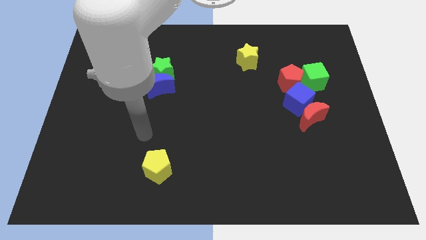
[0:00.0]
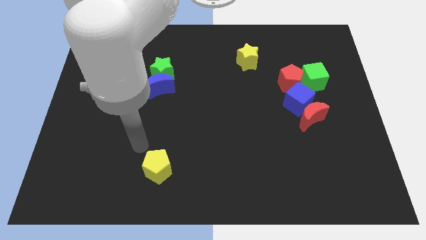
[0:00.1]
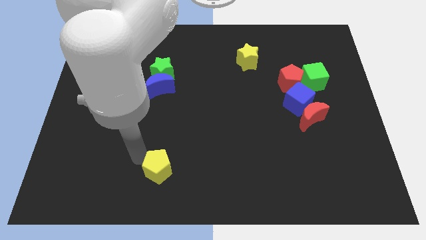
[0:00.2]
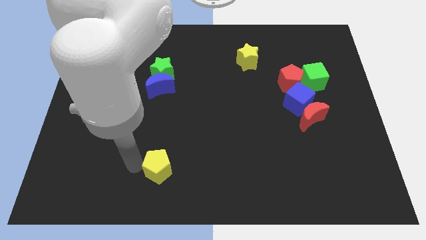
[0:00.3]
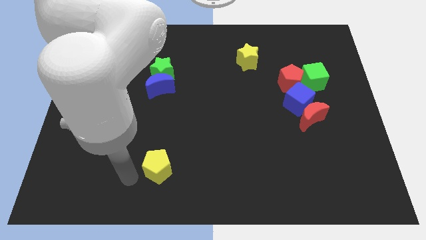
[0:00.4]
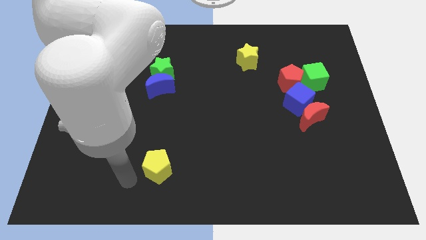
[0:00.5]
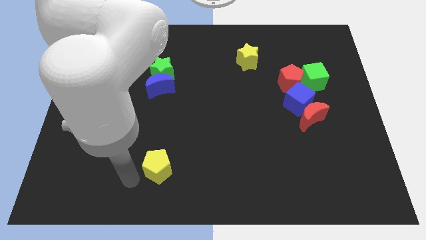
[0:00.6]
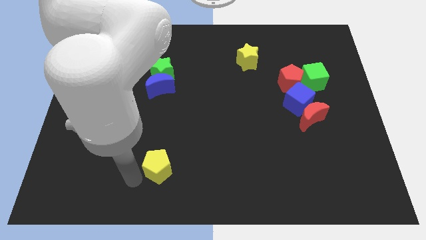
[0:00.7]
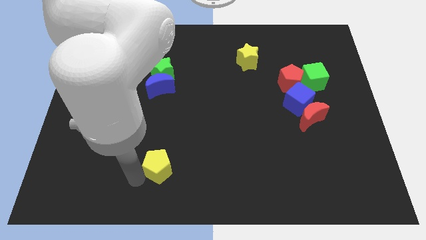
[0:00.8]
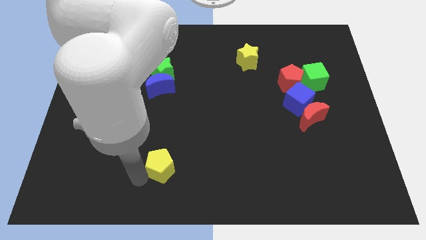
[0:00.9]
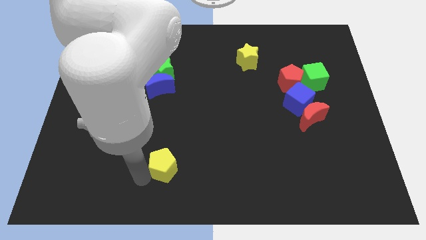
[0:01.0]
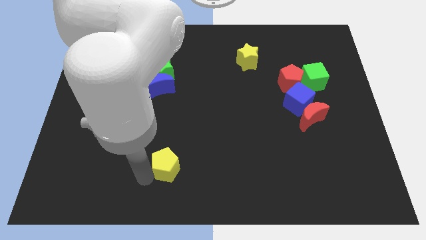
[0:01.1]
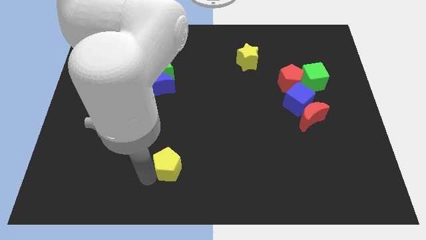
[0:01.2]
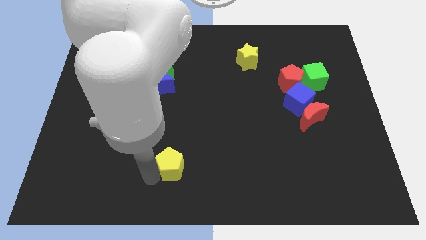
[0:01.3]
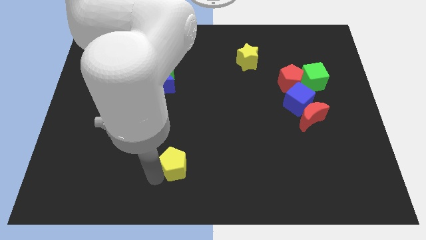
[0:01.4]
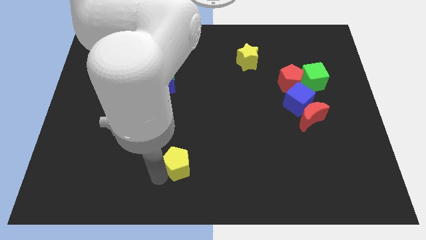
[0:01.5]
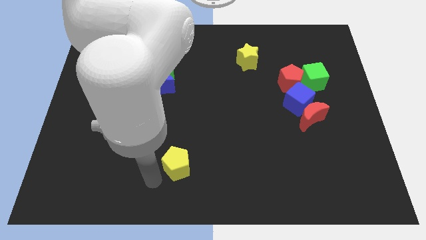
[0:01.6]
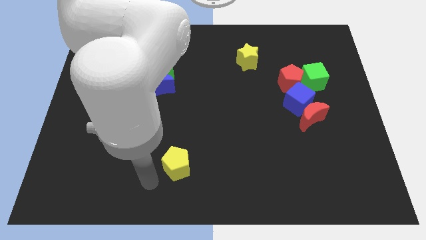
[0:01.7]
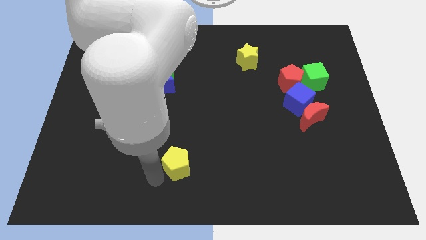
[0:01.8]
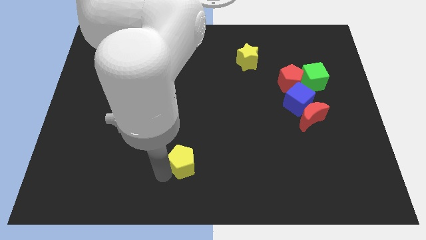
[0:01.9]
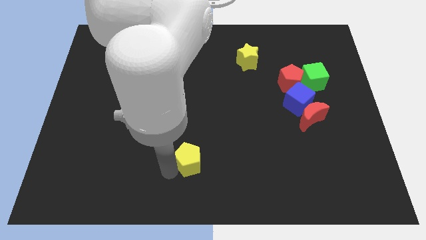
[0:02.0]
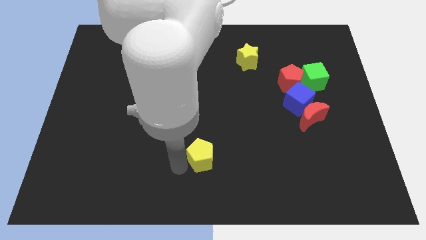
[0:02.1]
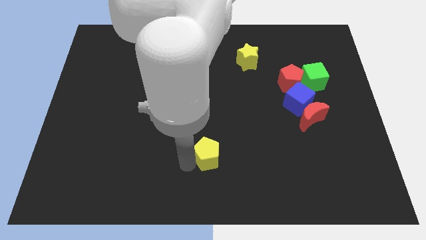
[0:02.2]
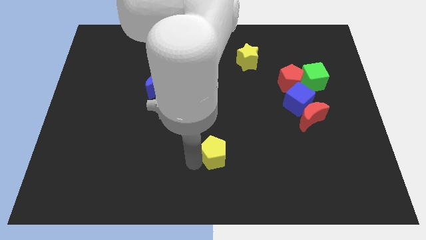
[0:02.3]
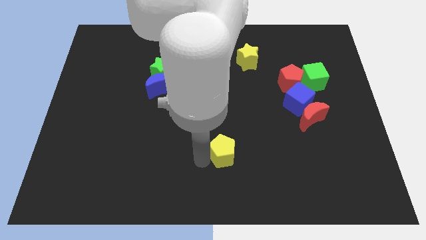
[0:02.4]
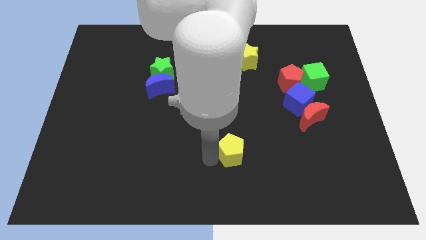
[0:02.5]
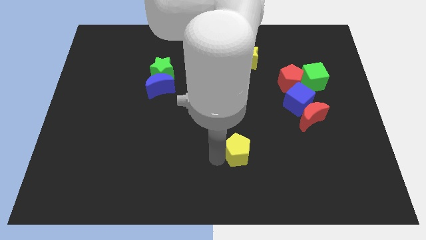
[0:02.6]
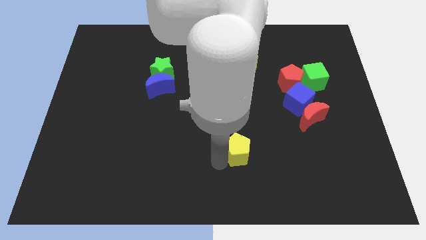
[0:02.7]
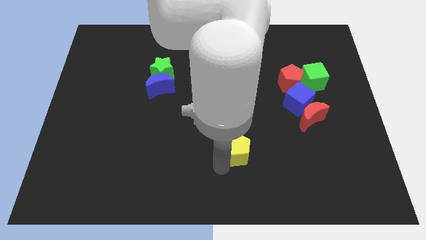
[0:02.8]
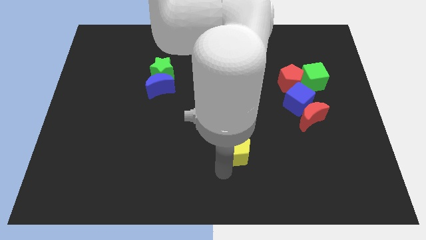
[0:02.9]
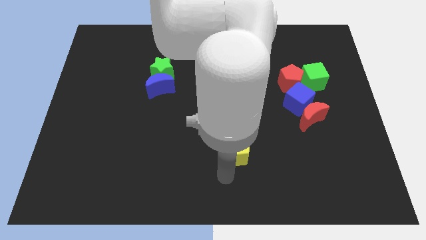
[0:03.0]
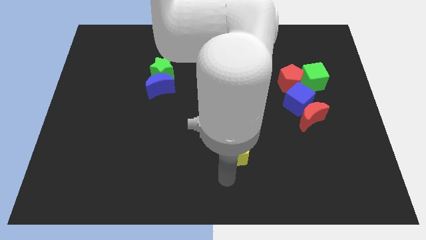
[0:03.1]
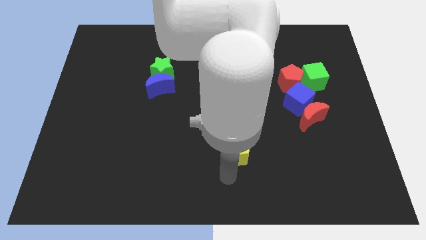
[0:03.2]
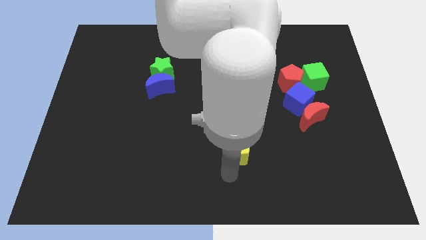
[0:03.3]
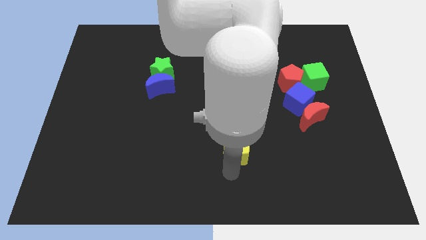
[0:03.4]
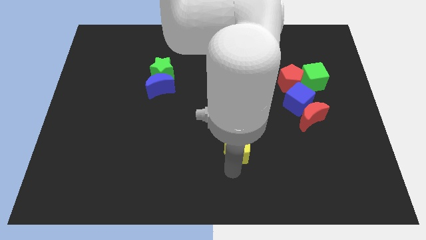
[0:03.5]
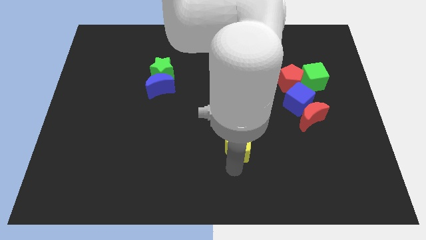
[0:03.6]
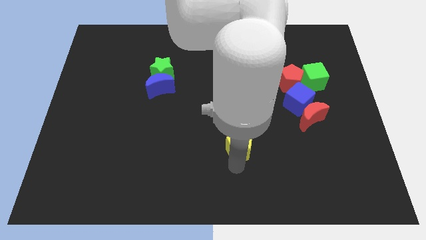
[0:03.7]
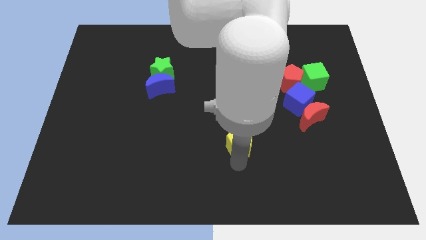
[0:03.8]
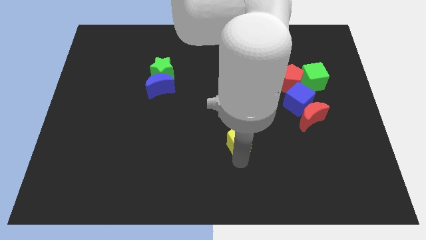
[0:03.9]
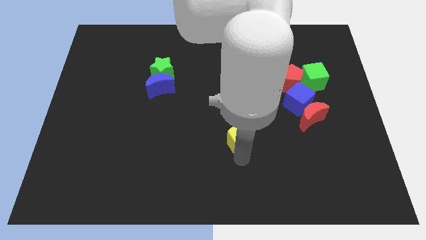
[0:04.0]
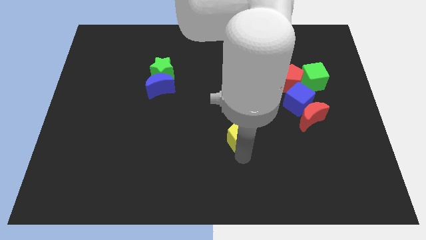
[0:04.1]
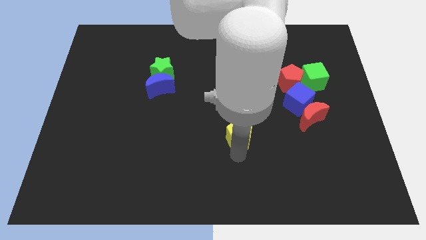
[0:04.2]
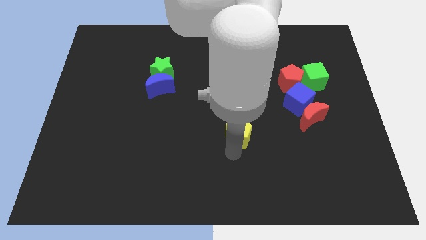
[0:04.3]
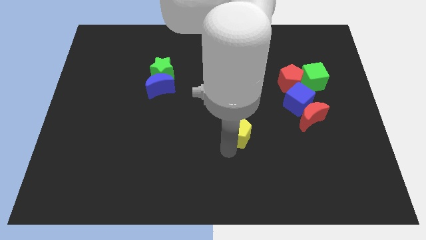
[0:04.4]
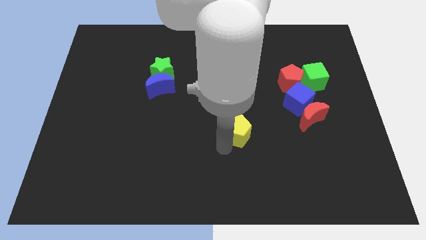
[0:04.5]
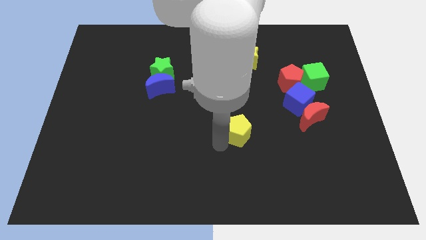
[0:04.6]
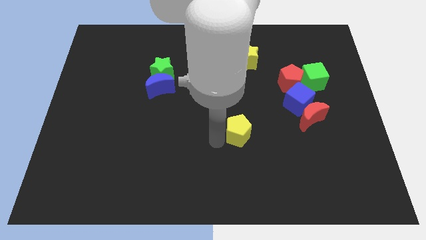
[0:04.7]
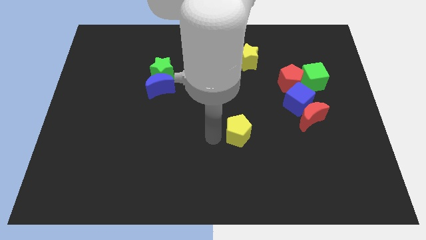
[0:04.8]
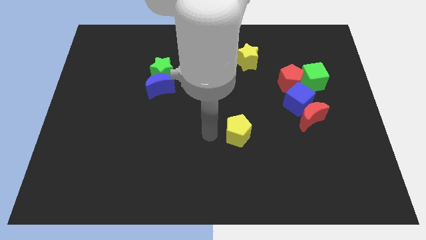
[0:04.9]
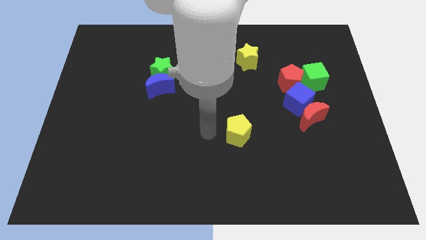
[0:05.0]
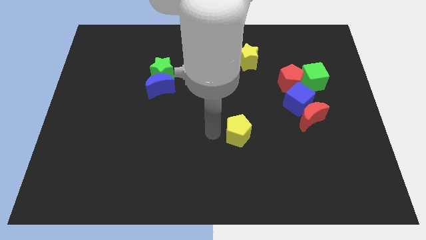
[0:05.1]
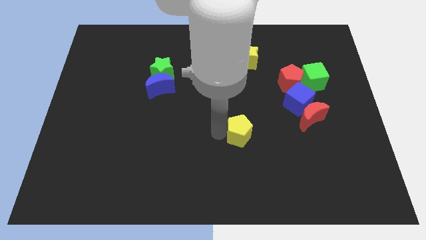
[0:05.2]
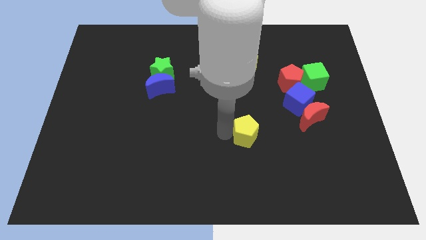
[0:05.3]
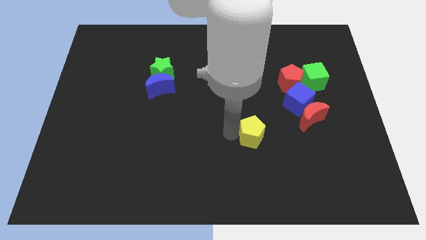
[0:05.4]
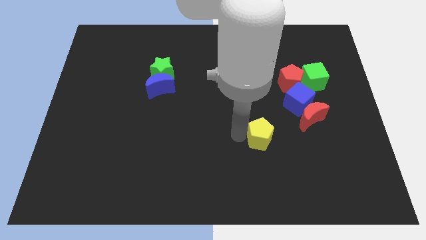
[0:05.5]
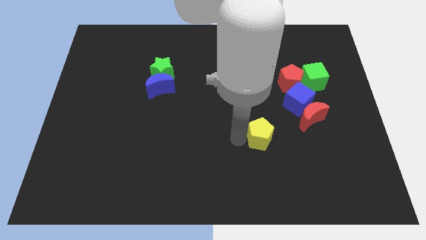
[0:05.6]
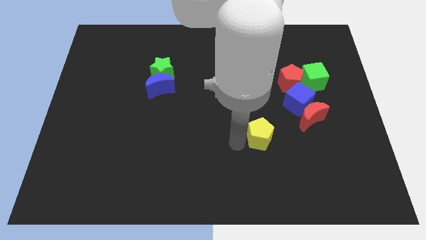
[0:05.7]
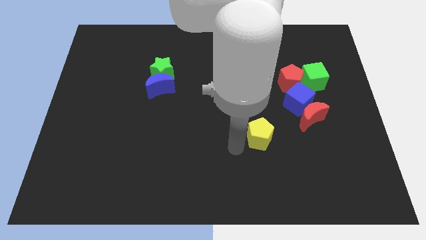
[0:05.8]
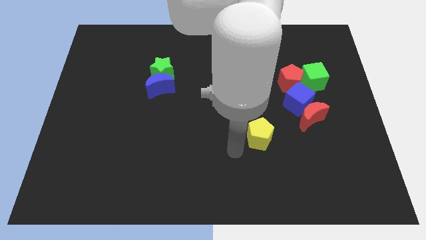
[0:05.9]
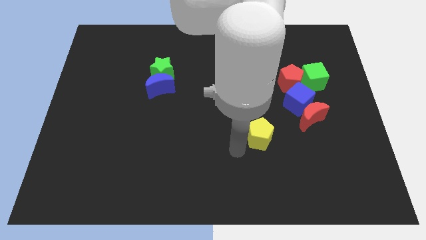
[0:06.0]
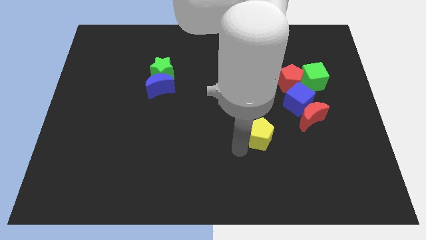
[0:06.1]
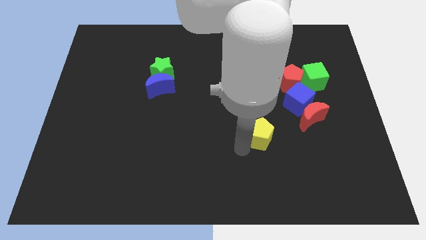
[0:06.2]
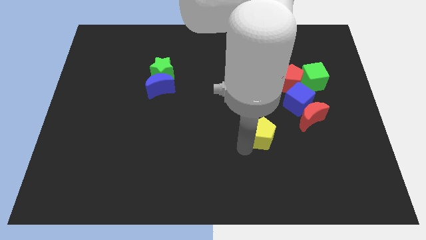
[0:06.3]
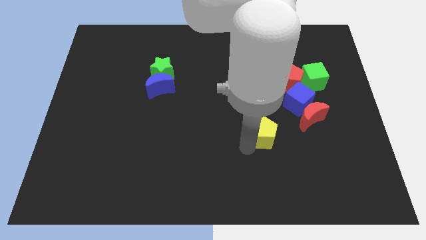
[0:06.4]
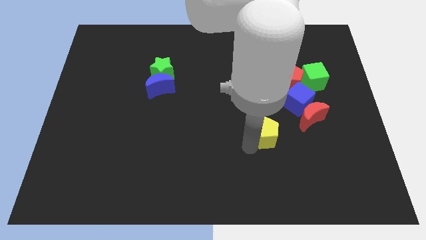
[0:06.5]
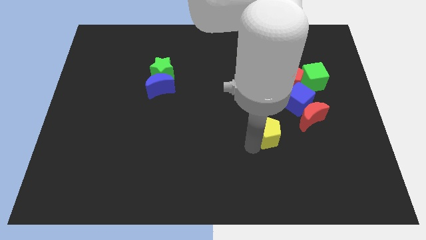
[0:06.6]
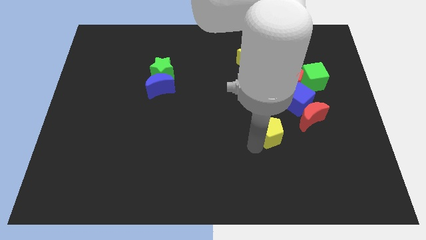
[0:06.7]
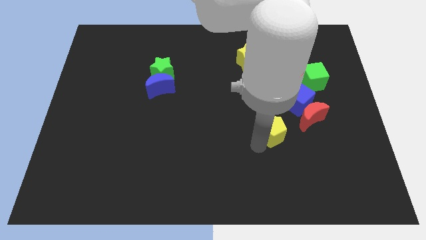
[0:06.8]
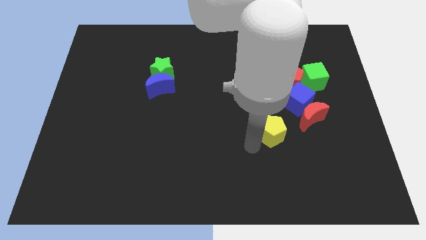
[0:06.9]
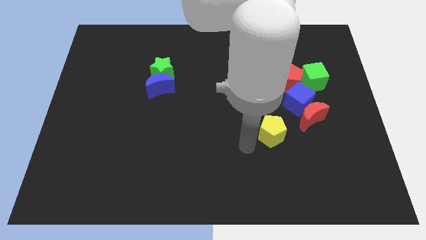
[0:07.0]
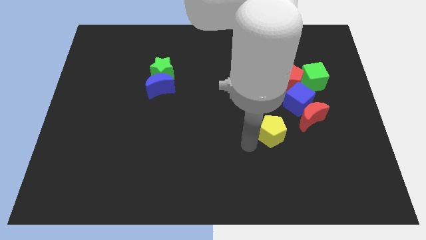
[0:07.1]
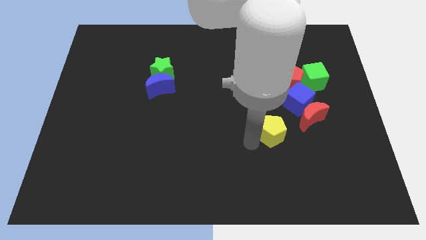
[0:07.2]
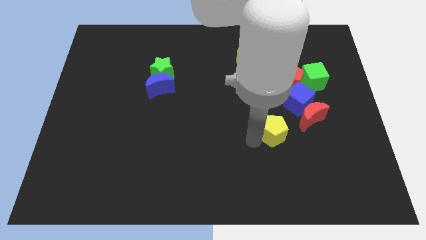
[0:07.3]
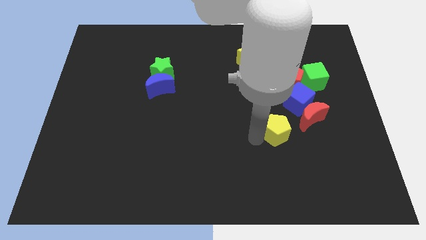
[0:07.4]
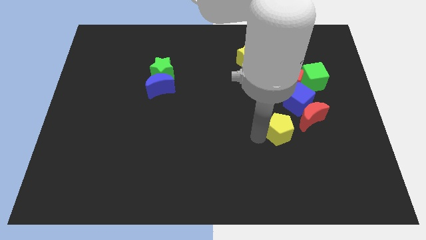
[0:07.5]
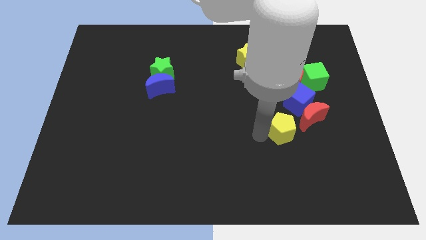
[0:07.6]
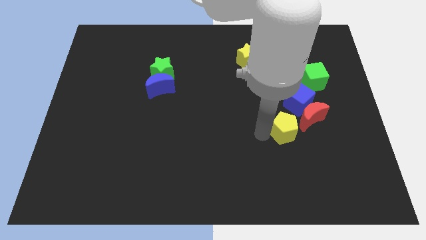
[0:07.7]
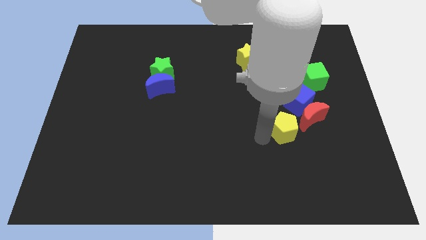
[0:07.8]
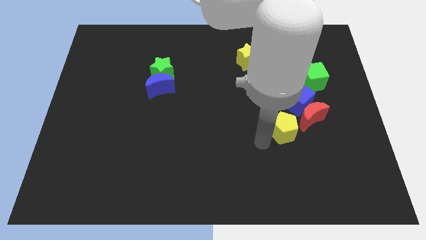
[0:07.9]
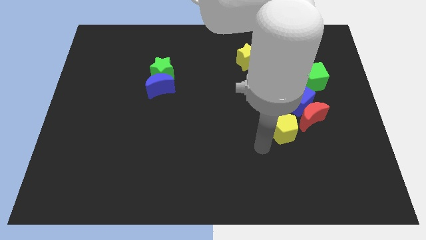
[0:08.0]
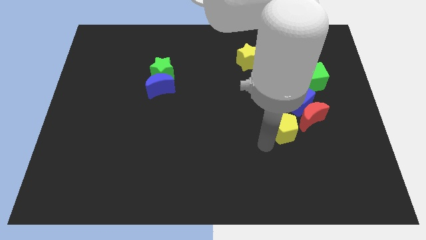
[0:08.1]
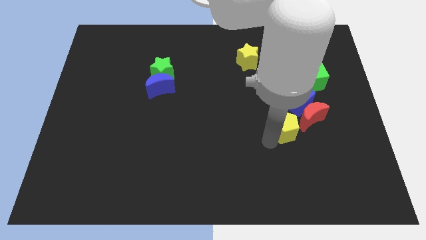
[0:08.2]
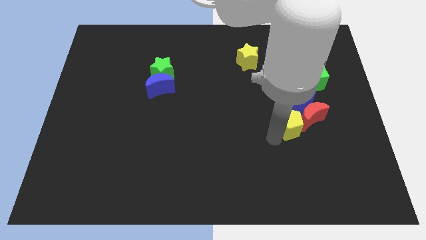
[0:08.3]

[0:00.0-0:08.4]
move the yellow pentagon to the red moon
